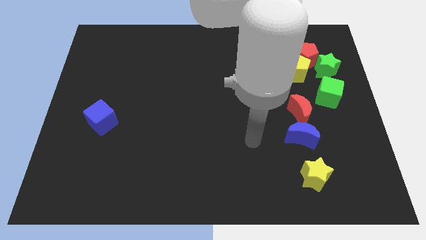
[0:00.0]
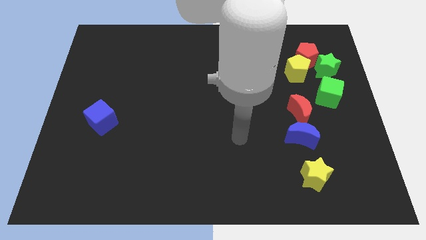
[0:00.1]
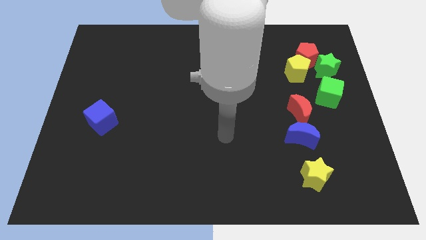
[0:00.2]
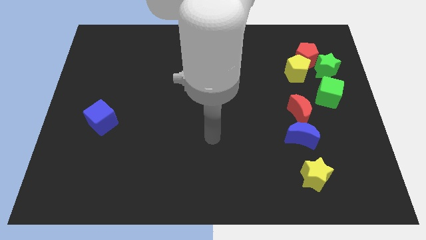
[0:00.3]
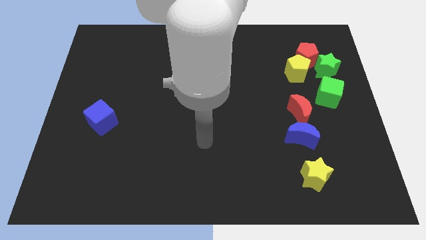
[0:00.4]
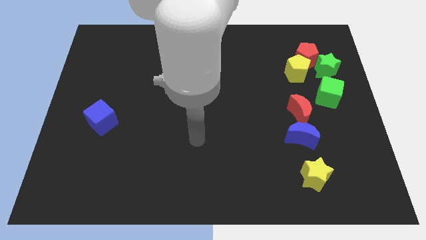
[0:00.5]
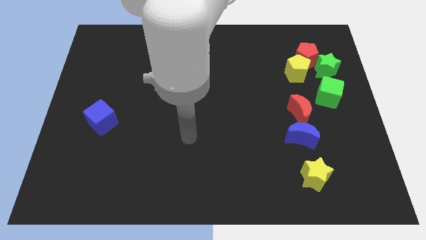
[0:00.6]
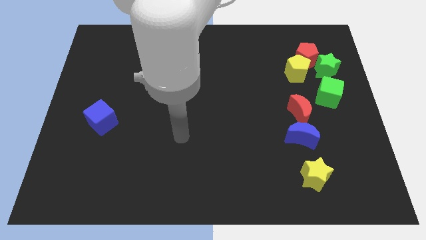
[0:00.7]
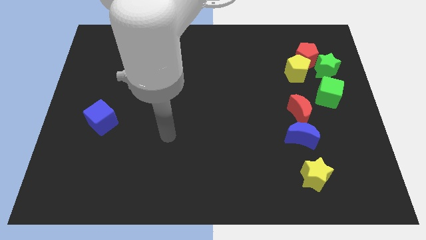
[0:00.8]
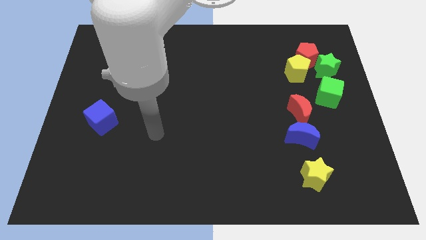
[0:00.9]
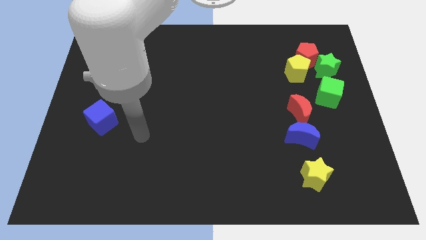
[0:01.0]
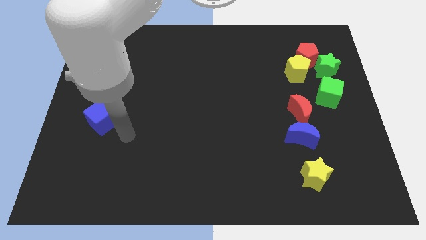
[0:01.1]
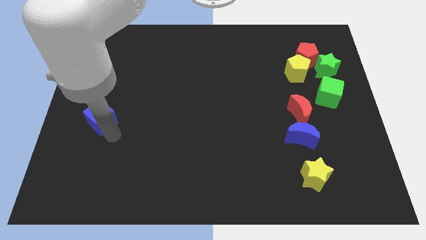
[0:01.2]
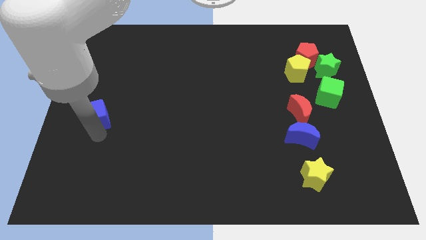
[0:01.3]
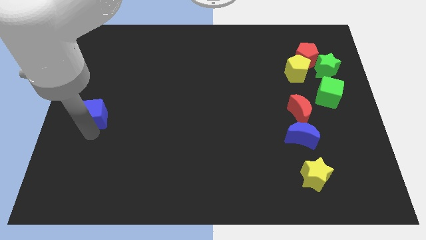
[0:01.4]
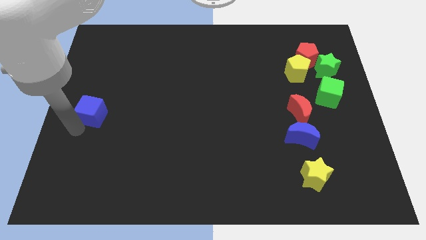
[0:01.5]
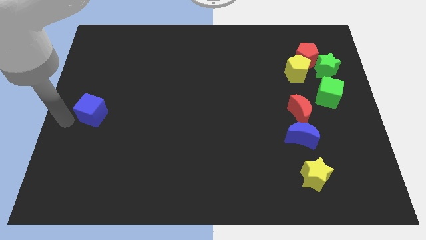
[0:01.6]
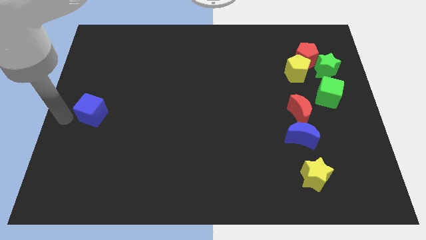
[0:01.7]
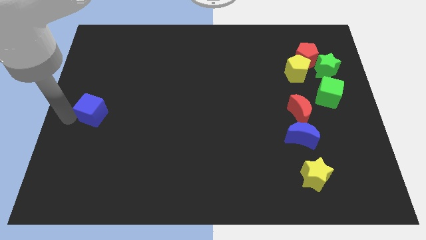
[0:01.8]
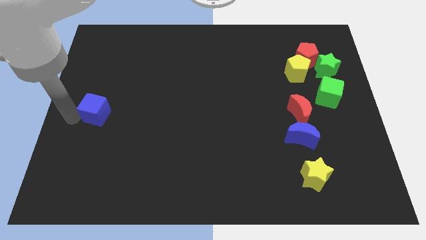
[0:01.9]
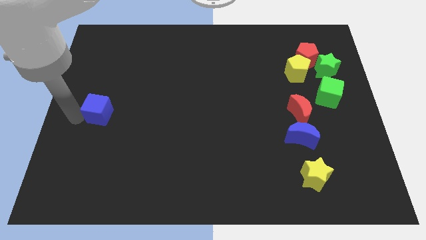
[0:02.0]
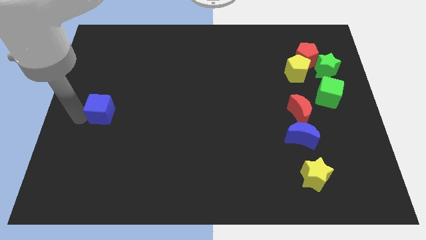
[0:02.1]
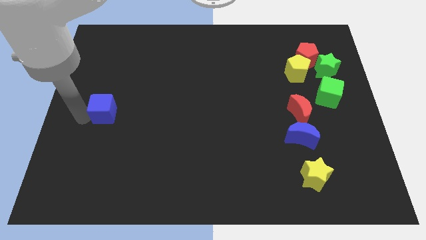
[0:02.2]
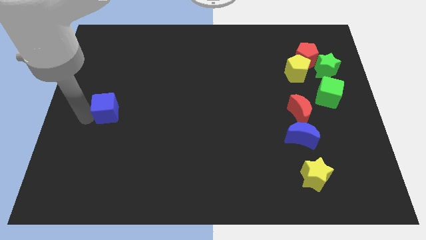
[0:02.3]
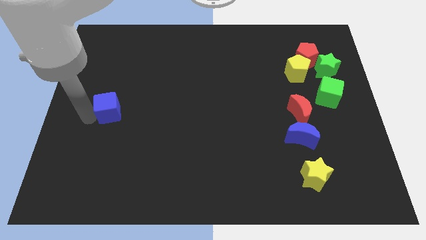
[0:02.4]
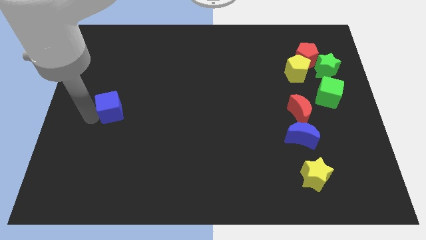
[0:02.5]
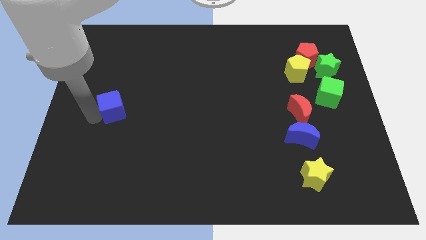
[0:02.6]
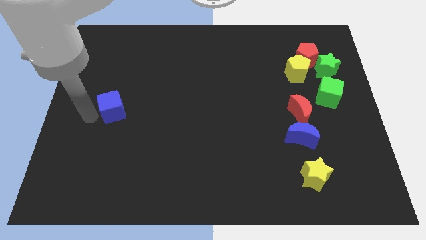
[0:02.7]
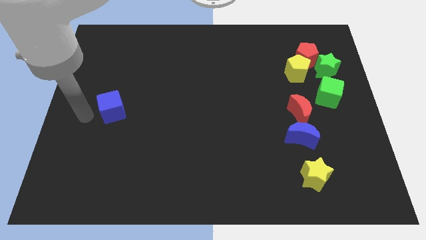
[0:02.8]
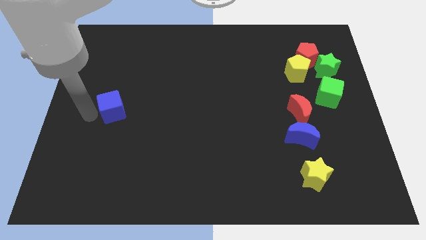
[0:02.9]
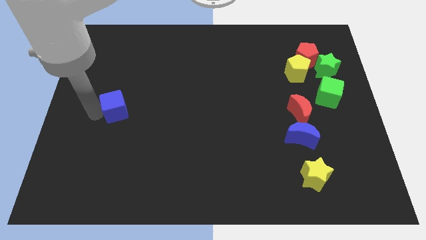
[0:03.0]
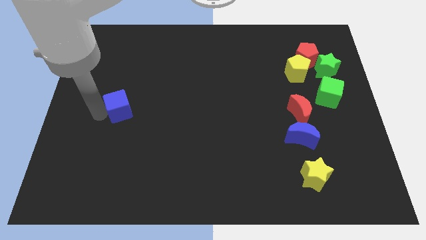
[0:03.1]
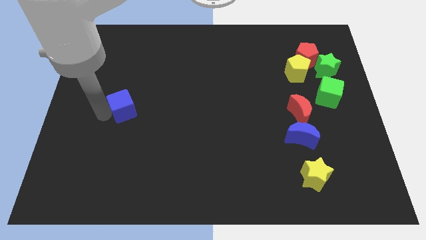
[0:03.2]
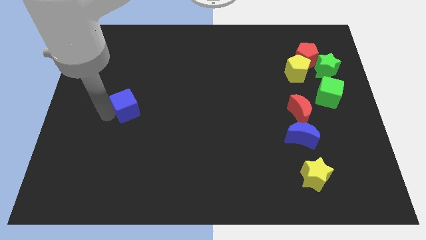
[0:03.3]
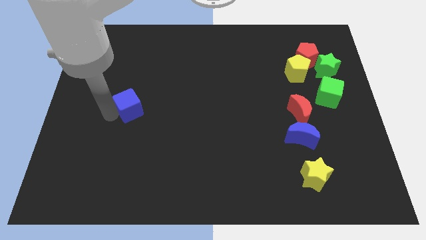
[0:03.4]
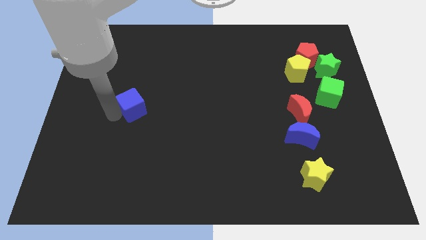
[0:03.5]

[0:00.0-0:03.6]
slightly slide the blue cube up and then to the right

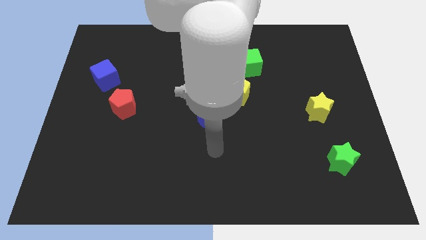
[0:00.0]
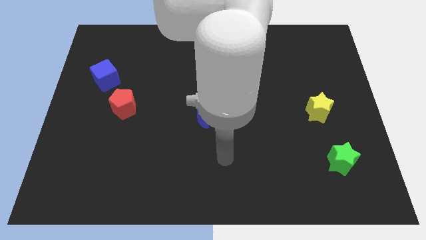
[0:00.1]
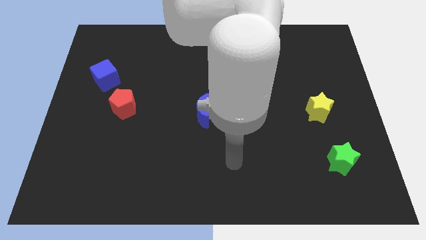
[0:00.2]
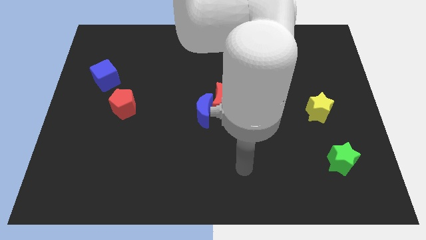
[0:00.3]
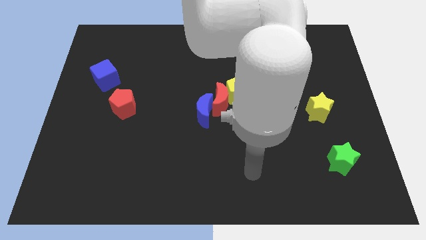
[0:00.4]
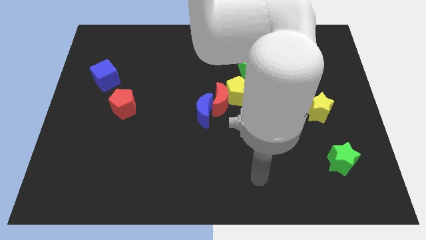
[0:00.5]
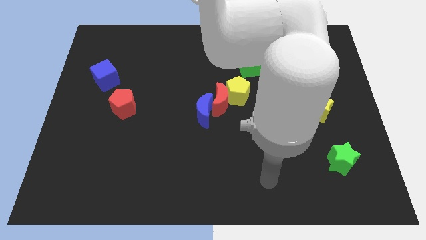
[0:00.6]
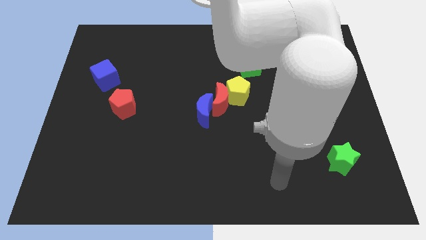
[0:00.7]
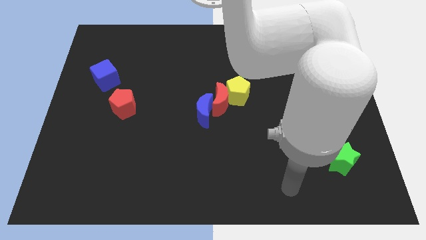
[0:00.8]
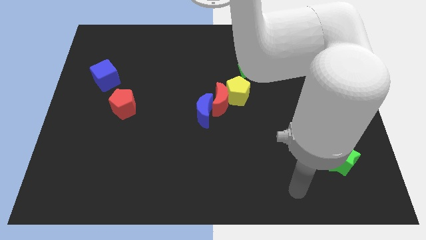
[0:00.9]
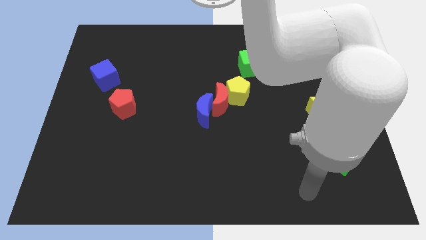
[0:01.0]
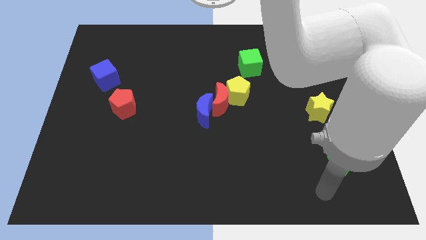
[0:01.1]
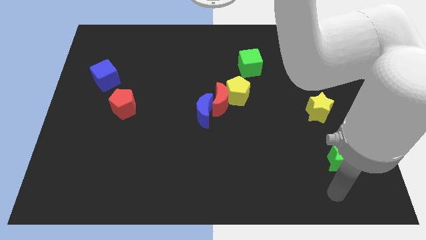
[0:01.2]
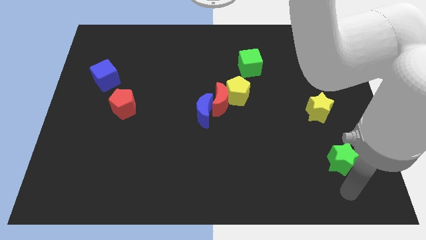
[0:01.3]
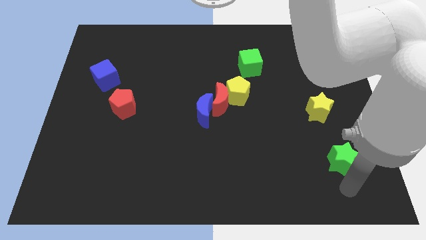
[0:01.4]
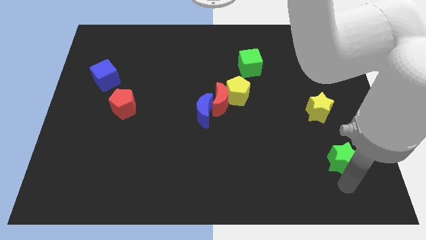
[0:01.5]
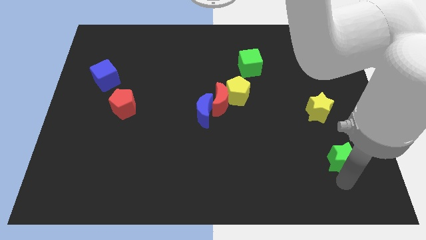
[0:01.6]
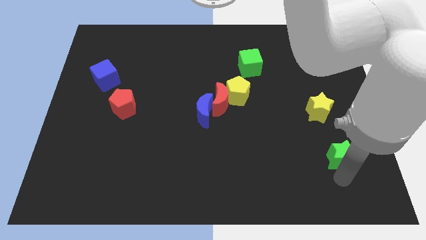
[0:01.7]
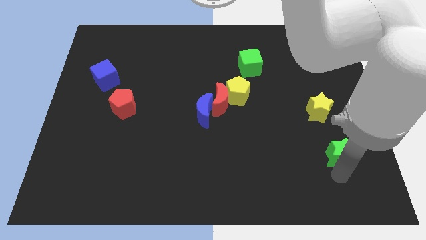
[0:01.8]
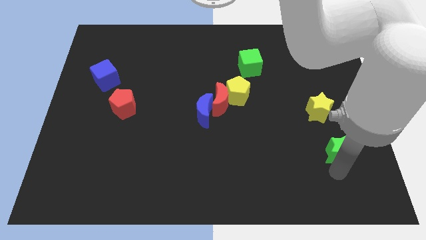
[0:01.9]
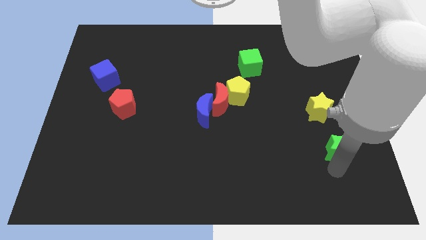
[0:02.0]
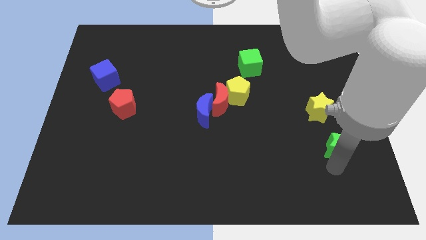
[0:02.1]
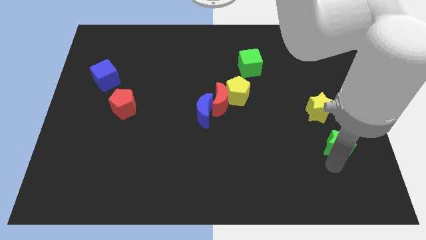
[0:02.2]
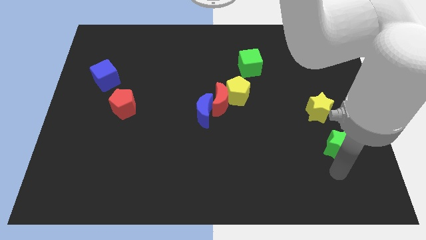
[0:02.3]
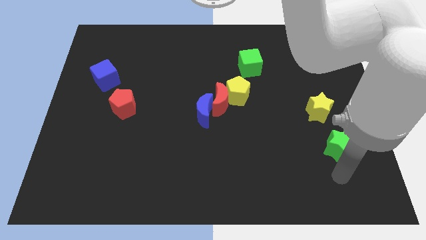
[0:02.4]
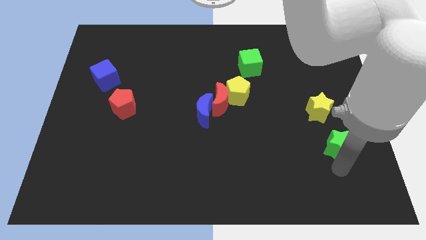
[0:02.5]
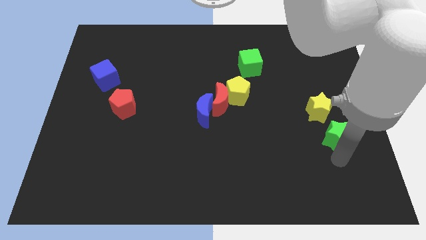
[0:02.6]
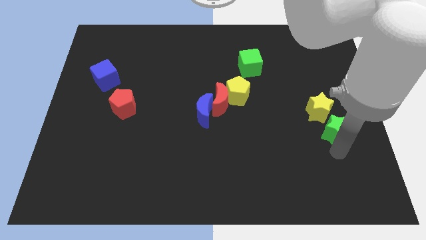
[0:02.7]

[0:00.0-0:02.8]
move the green star a little bit up

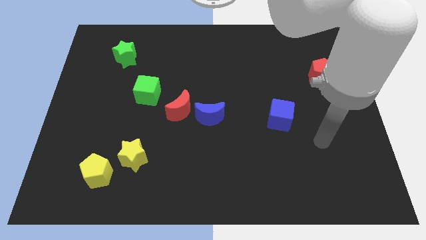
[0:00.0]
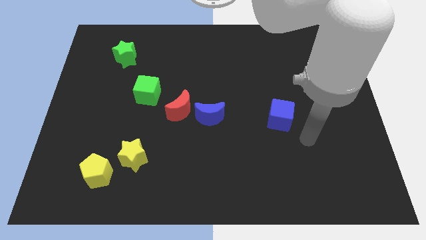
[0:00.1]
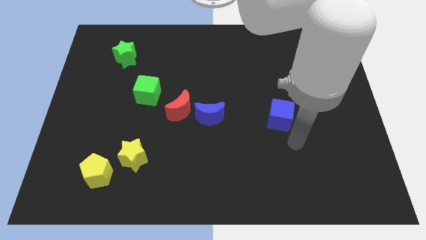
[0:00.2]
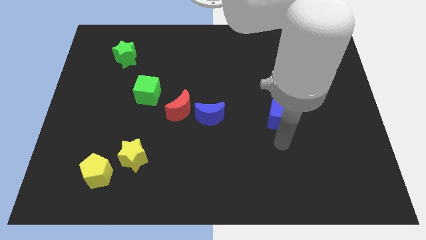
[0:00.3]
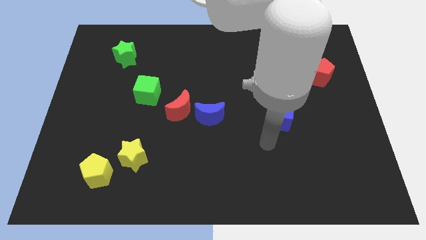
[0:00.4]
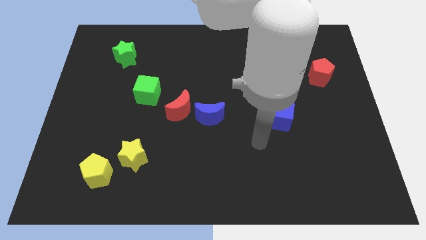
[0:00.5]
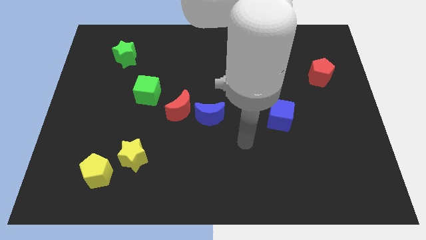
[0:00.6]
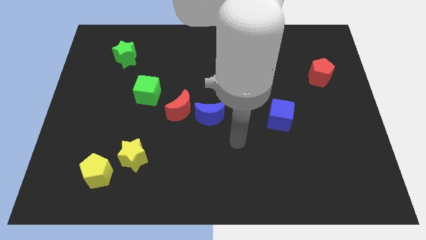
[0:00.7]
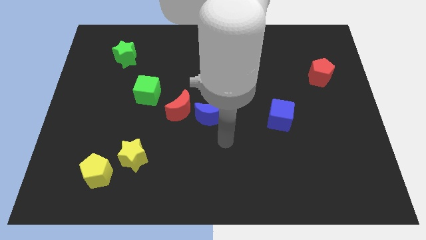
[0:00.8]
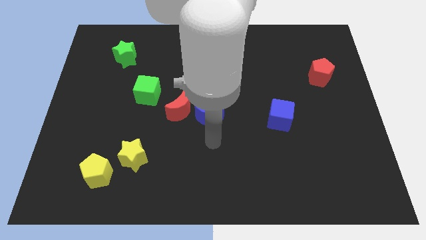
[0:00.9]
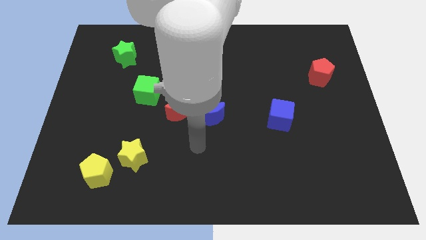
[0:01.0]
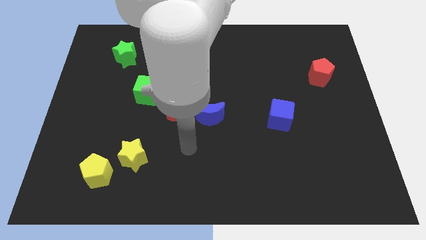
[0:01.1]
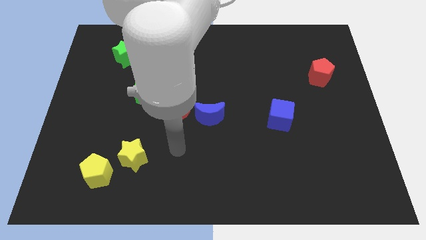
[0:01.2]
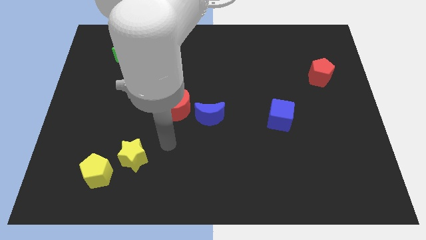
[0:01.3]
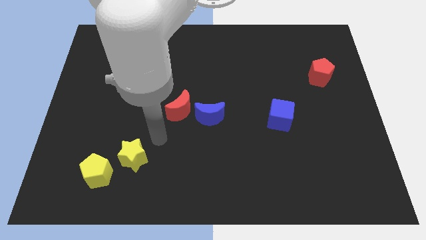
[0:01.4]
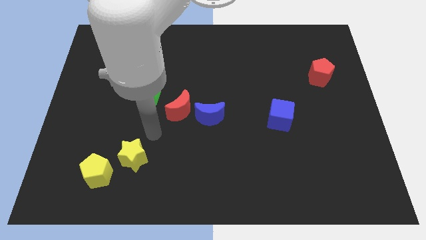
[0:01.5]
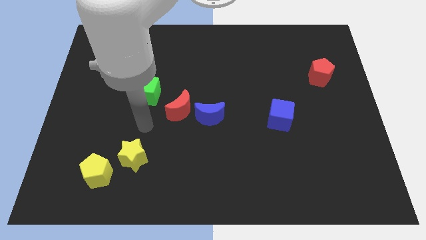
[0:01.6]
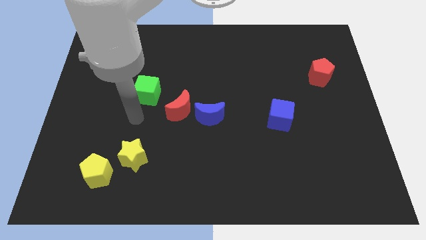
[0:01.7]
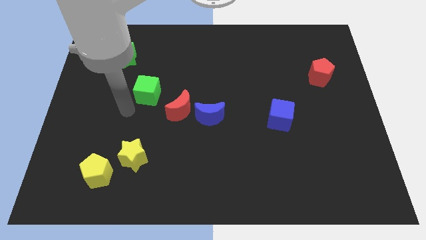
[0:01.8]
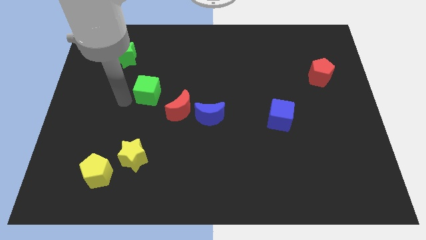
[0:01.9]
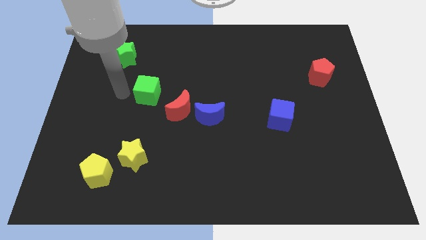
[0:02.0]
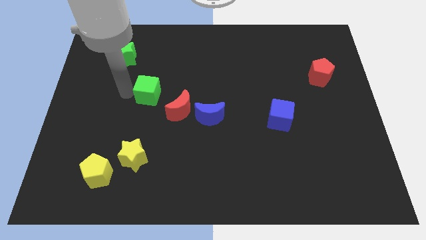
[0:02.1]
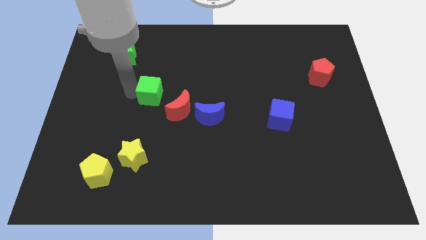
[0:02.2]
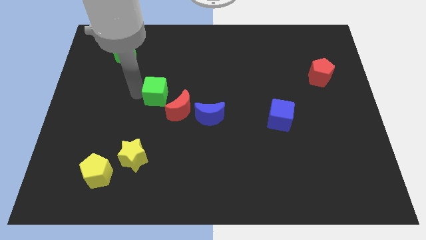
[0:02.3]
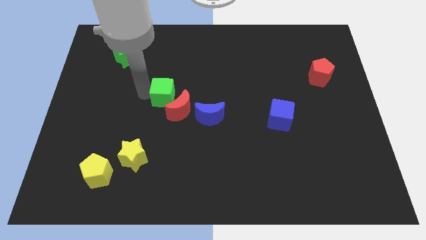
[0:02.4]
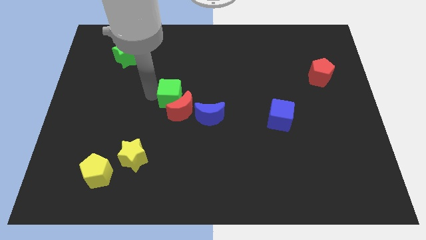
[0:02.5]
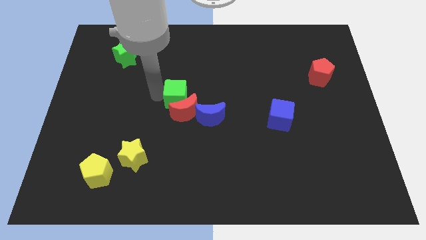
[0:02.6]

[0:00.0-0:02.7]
slide the green cube to the right a bit
